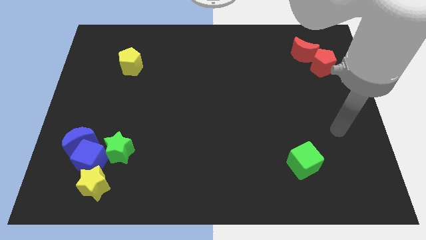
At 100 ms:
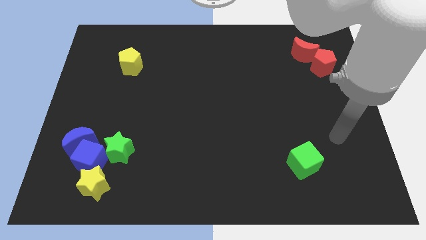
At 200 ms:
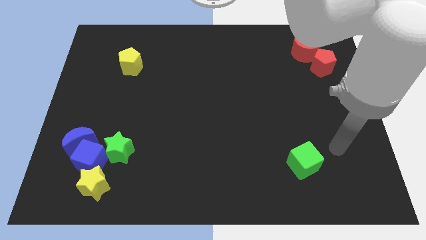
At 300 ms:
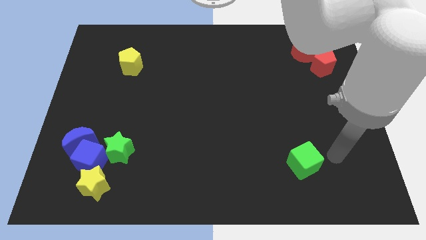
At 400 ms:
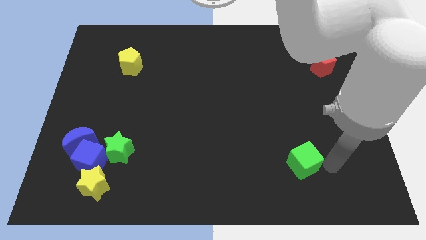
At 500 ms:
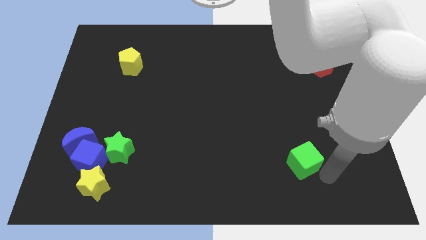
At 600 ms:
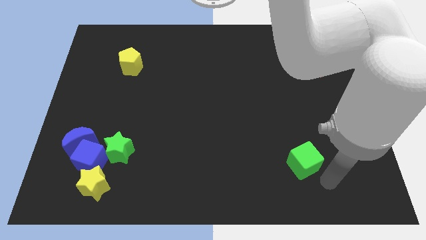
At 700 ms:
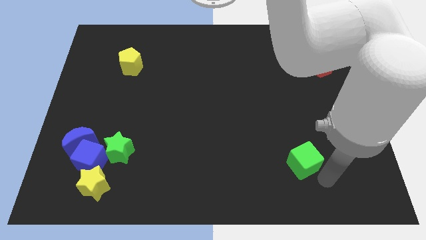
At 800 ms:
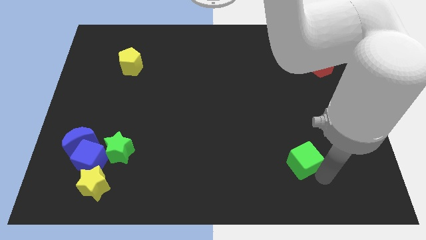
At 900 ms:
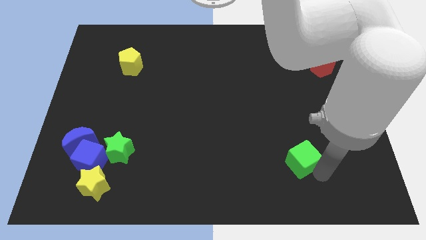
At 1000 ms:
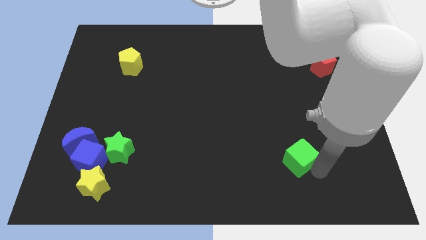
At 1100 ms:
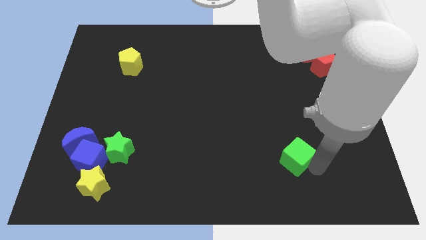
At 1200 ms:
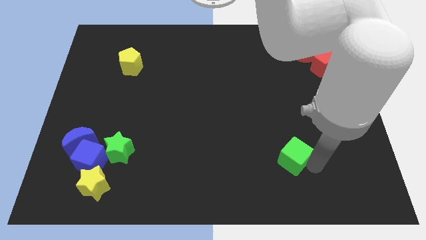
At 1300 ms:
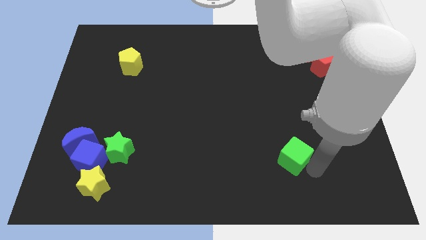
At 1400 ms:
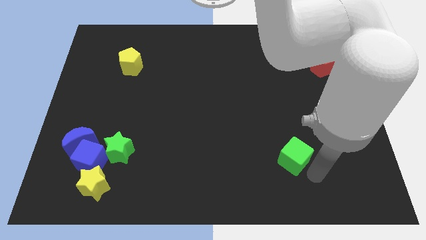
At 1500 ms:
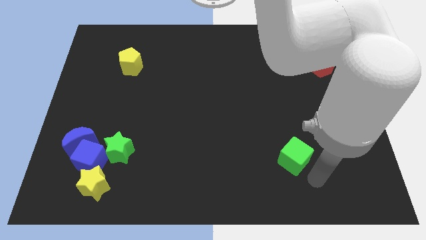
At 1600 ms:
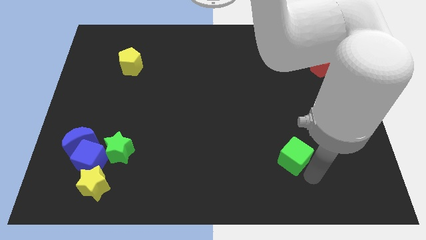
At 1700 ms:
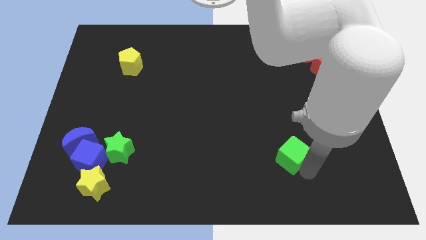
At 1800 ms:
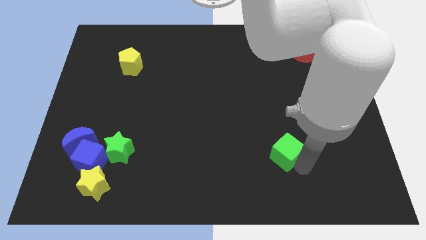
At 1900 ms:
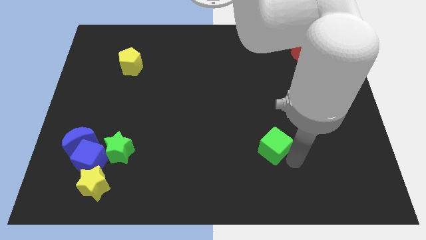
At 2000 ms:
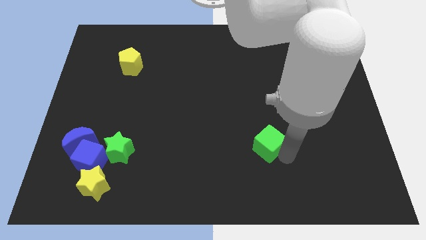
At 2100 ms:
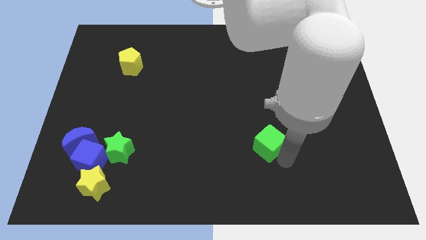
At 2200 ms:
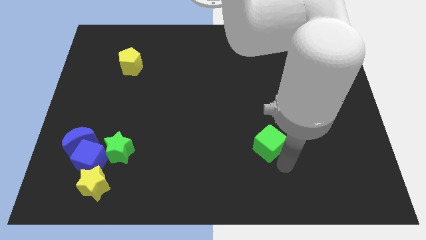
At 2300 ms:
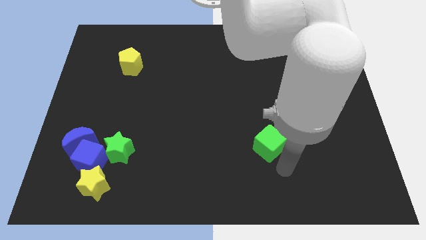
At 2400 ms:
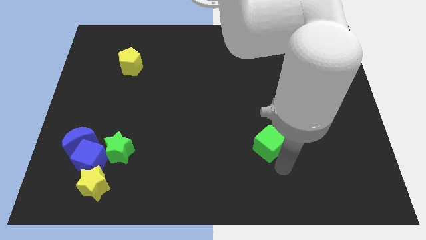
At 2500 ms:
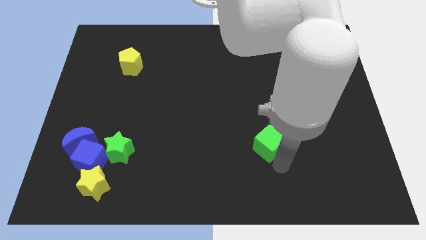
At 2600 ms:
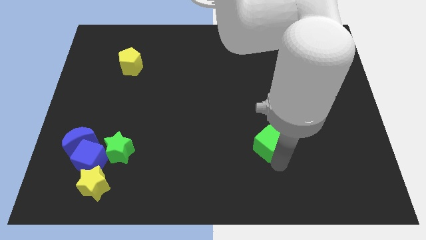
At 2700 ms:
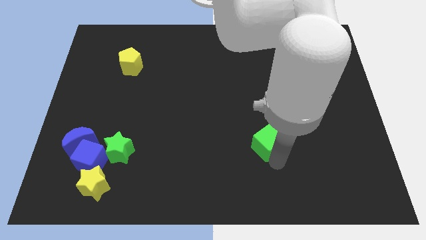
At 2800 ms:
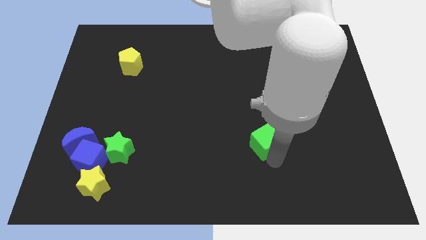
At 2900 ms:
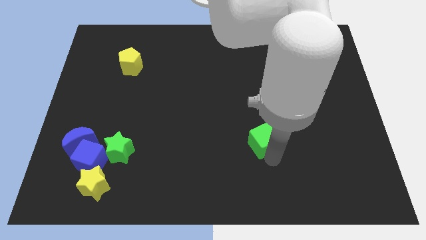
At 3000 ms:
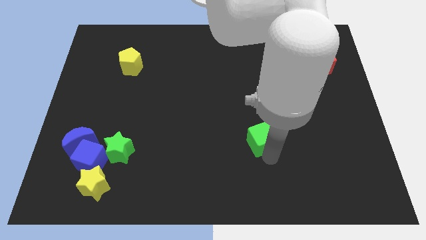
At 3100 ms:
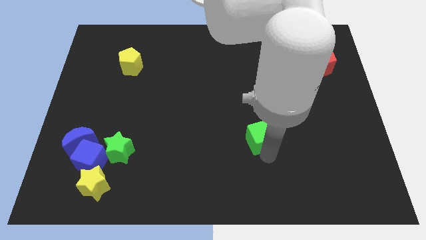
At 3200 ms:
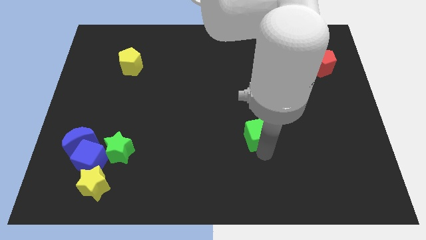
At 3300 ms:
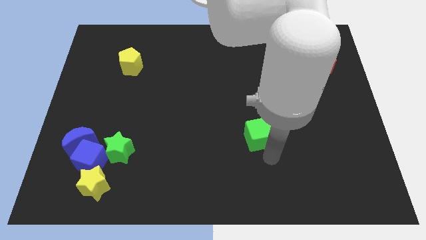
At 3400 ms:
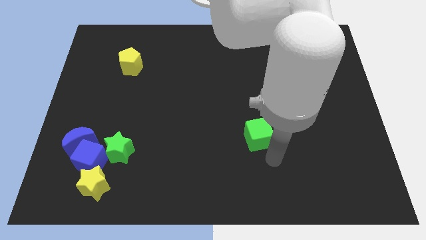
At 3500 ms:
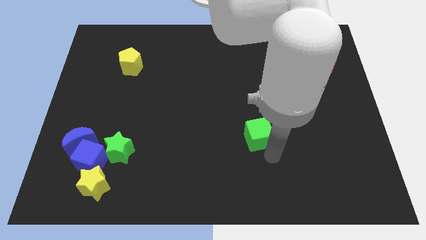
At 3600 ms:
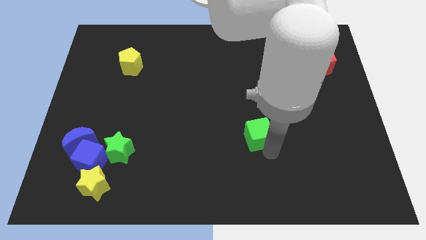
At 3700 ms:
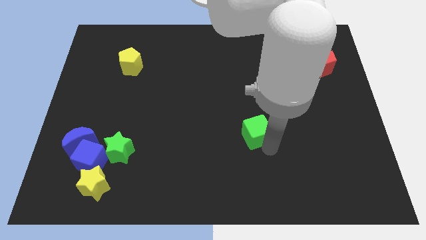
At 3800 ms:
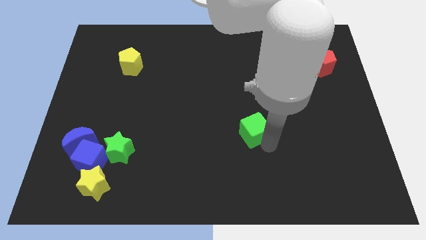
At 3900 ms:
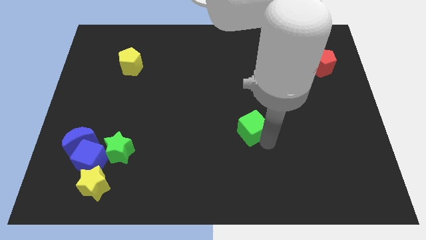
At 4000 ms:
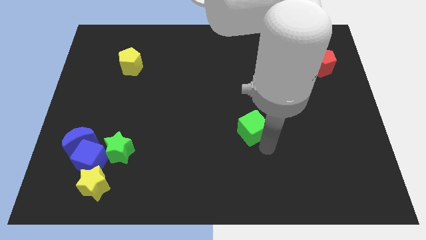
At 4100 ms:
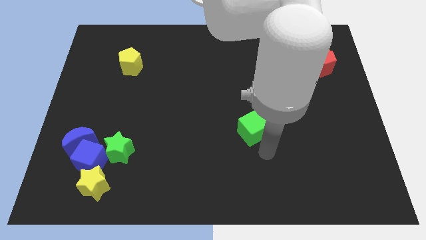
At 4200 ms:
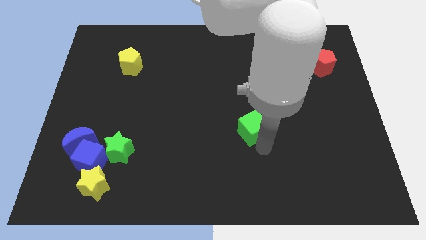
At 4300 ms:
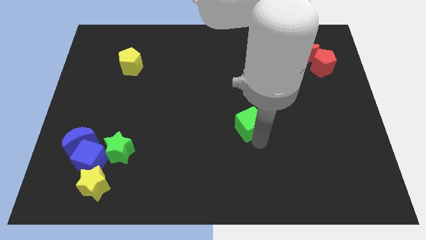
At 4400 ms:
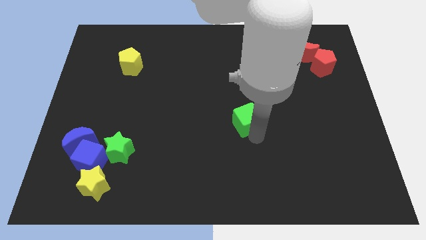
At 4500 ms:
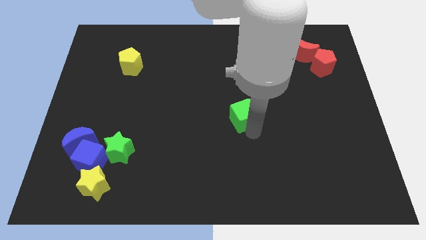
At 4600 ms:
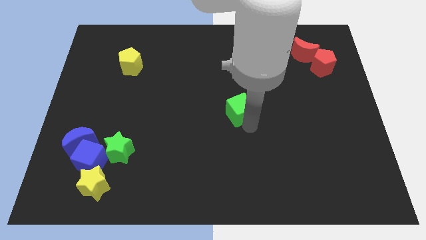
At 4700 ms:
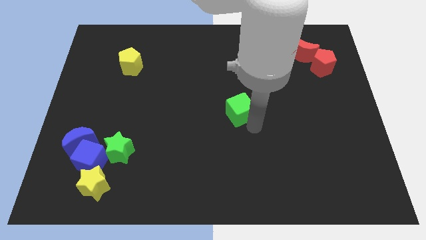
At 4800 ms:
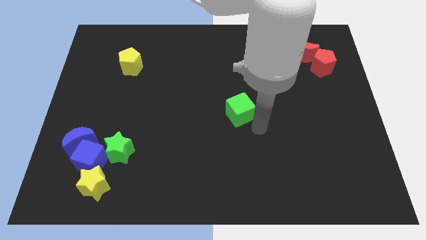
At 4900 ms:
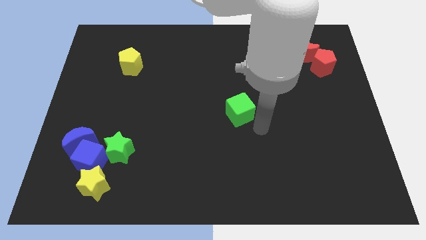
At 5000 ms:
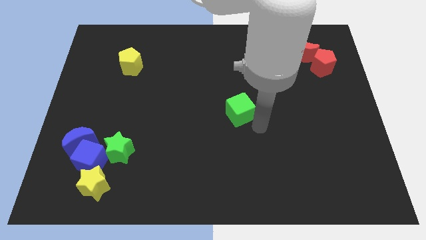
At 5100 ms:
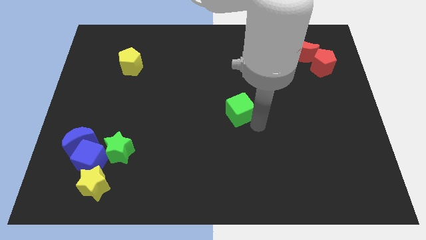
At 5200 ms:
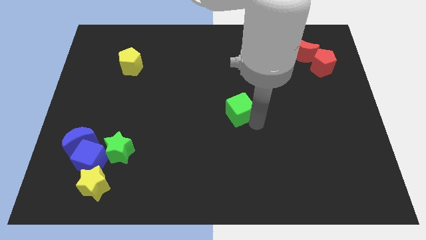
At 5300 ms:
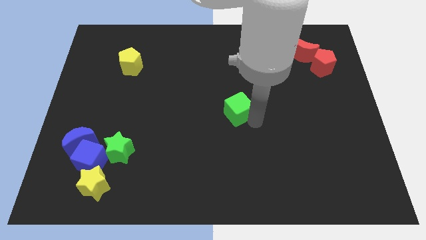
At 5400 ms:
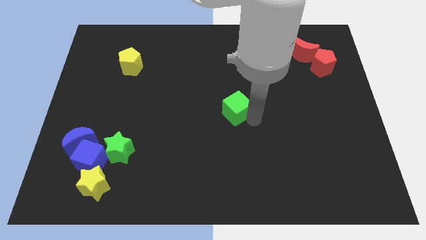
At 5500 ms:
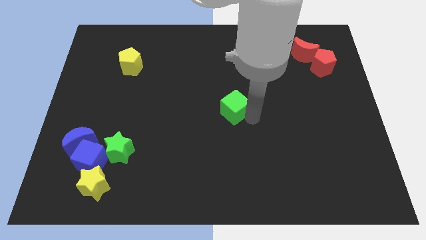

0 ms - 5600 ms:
slide the green cube upwards and to the left diagonally

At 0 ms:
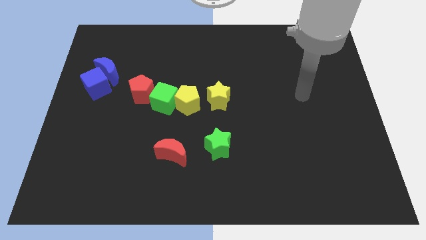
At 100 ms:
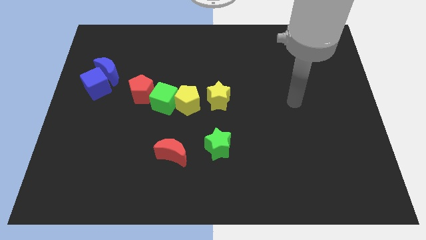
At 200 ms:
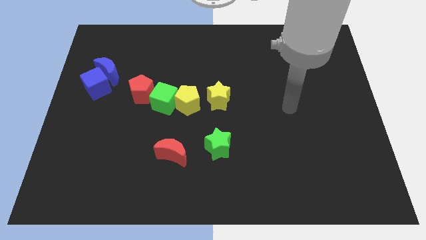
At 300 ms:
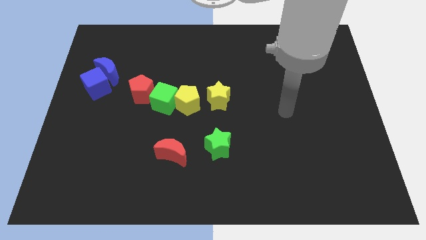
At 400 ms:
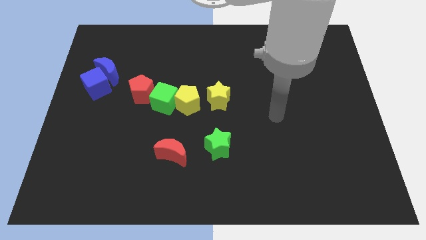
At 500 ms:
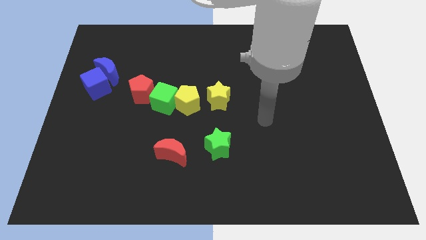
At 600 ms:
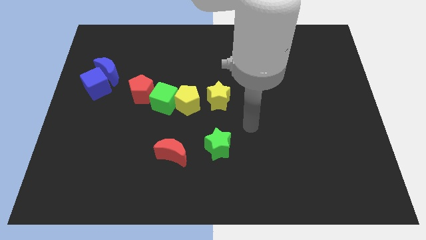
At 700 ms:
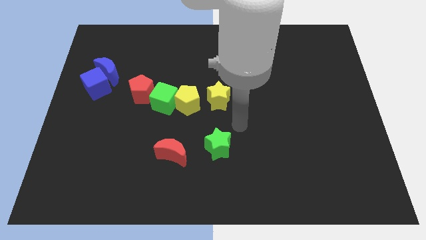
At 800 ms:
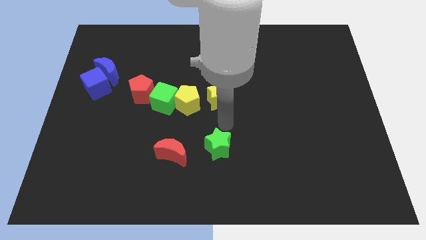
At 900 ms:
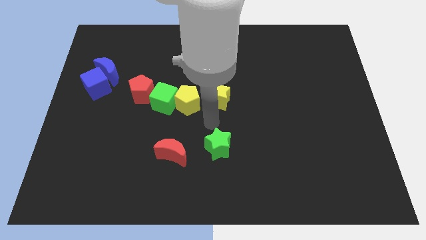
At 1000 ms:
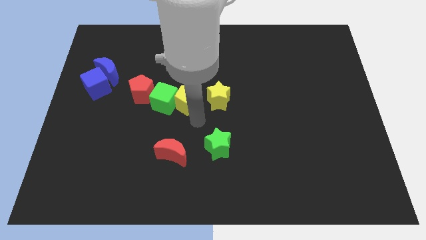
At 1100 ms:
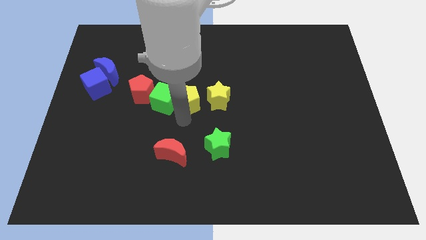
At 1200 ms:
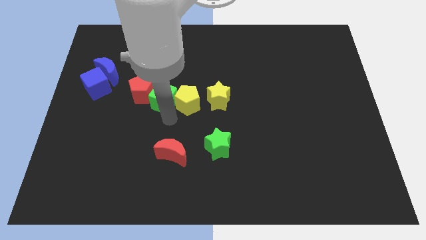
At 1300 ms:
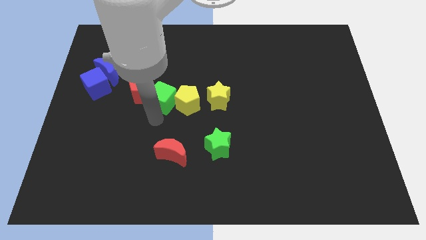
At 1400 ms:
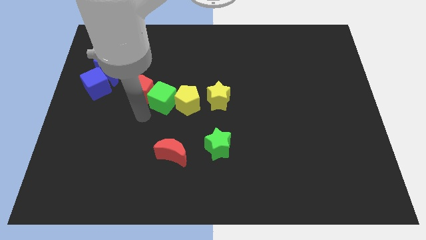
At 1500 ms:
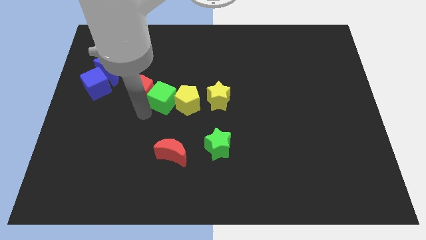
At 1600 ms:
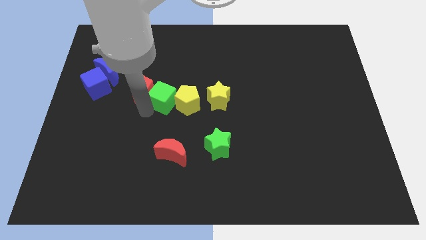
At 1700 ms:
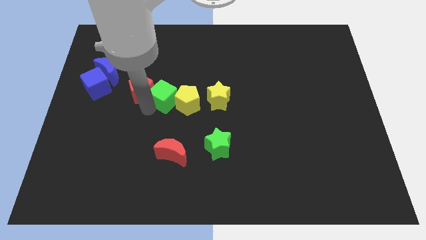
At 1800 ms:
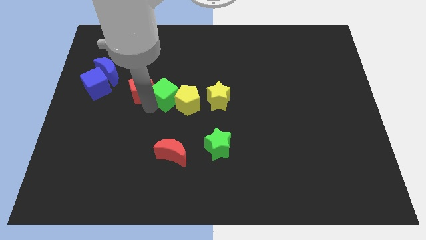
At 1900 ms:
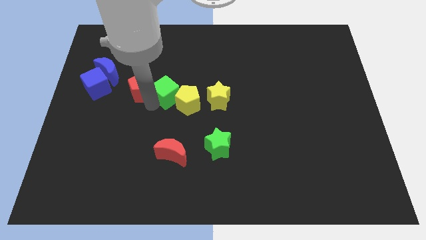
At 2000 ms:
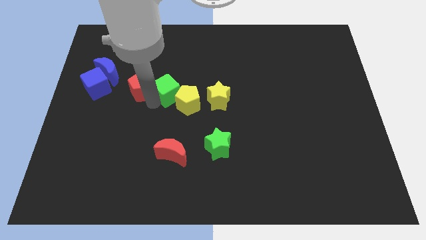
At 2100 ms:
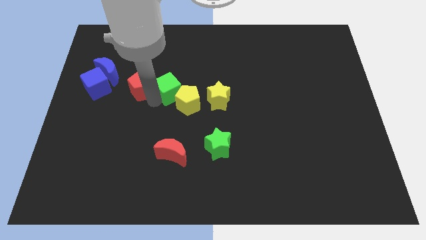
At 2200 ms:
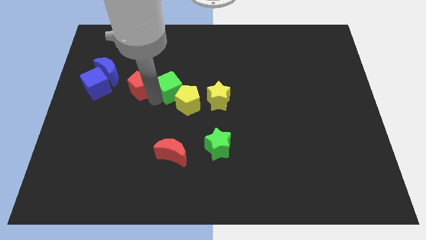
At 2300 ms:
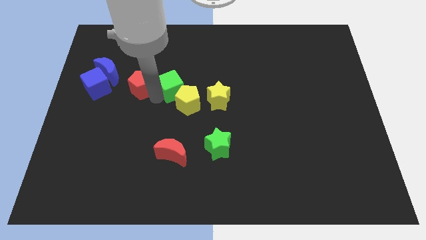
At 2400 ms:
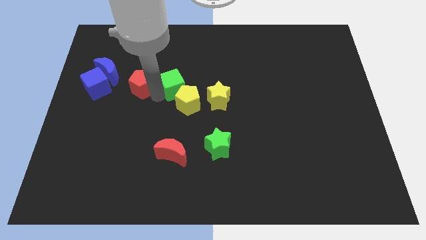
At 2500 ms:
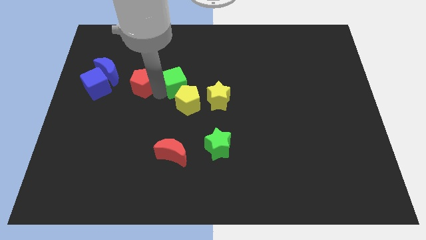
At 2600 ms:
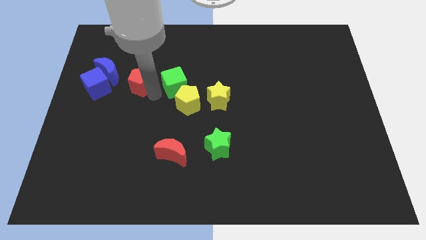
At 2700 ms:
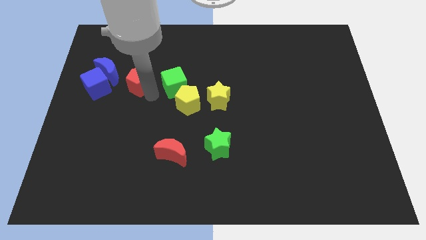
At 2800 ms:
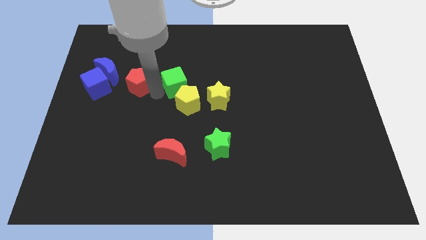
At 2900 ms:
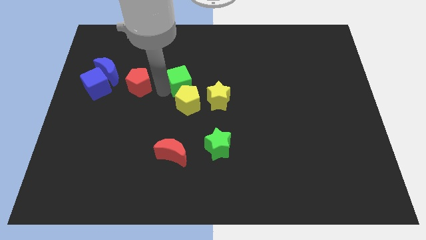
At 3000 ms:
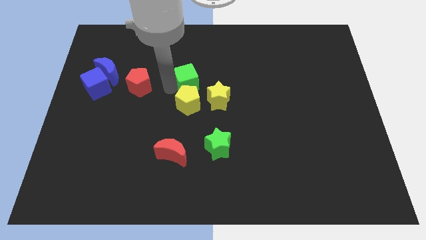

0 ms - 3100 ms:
slightly slide the green cube up and to the right
